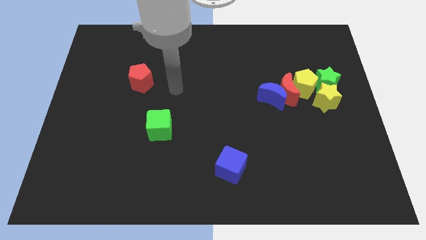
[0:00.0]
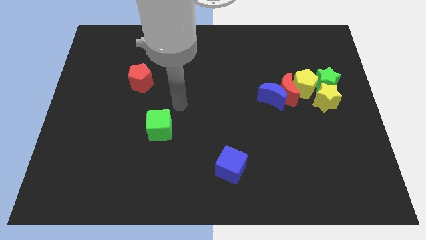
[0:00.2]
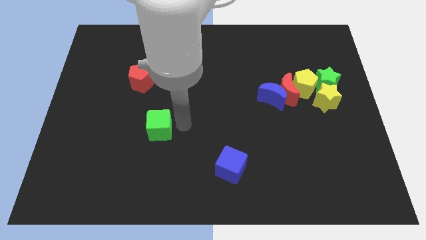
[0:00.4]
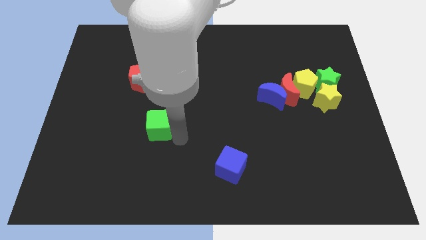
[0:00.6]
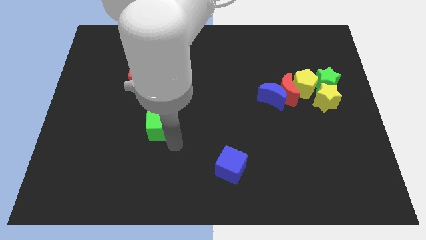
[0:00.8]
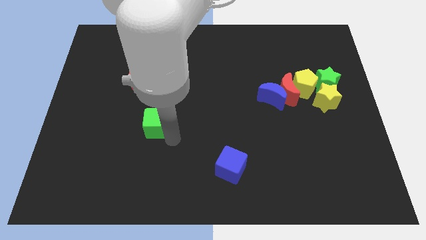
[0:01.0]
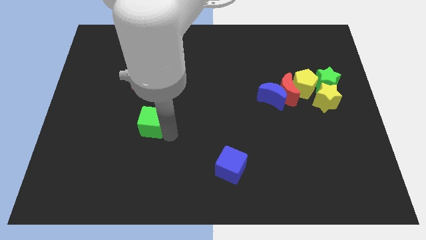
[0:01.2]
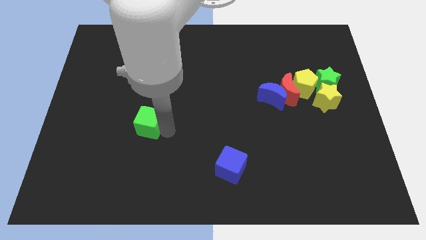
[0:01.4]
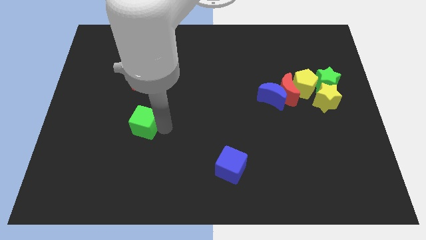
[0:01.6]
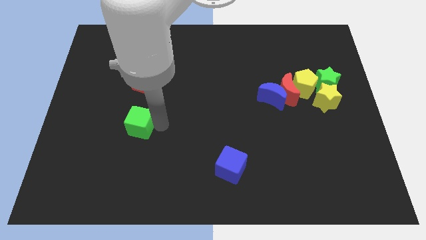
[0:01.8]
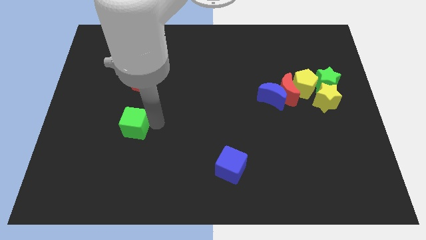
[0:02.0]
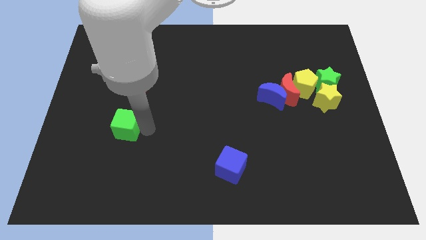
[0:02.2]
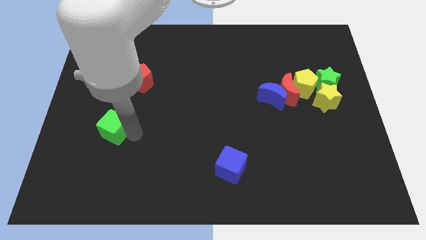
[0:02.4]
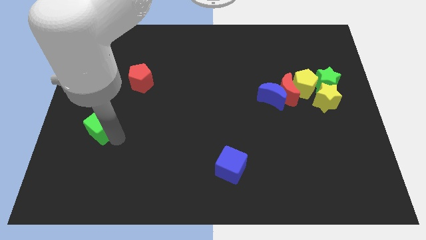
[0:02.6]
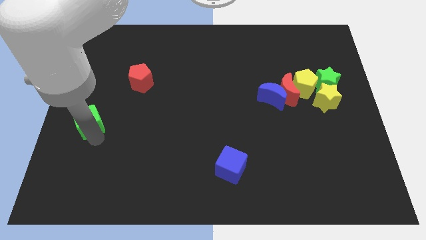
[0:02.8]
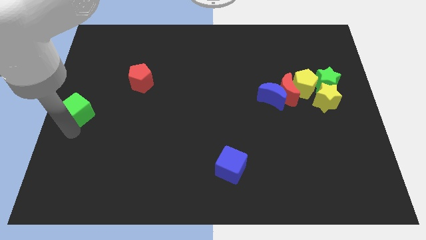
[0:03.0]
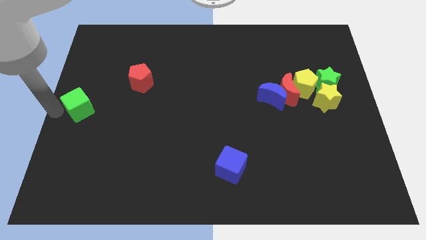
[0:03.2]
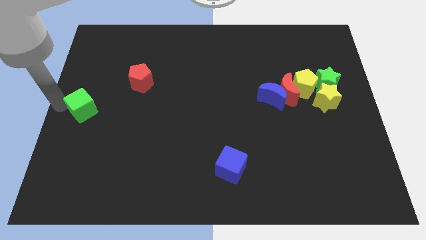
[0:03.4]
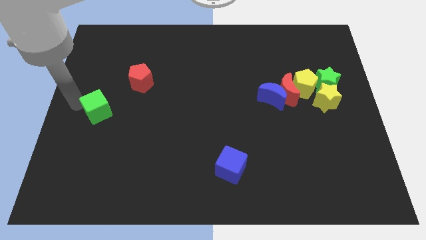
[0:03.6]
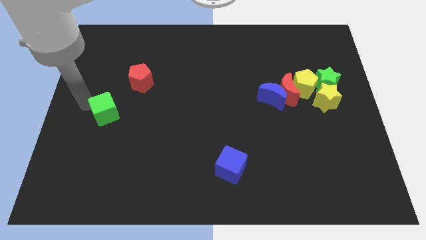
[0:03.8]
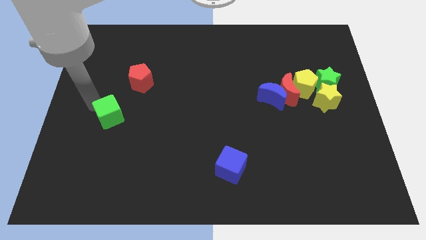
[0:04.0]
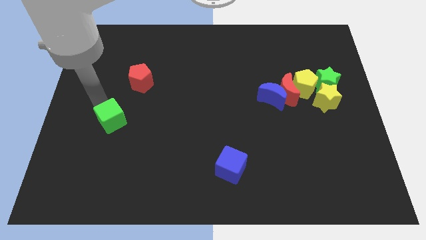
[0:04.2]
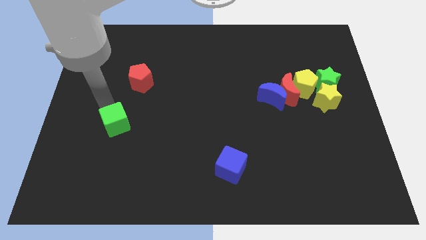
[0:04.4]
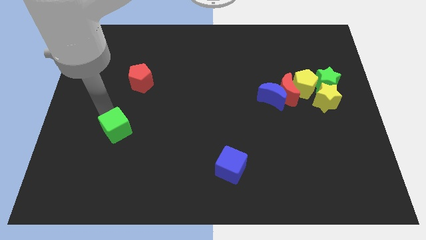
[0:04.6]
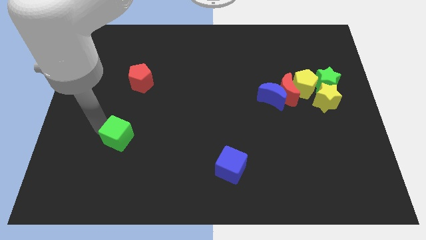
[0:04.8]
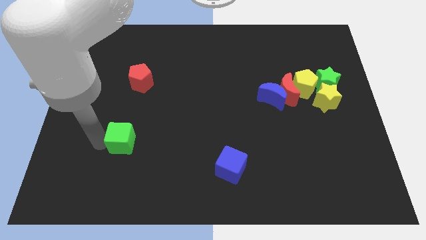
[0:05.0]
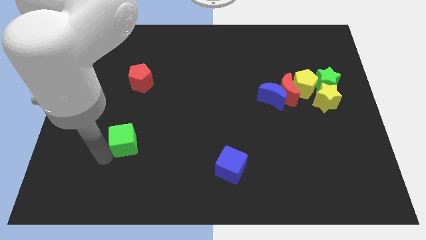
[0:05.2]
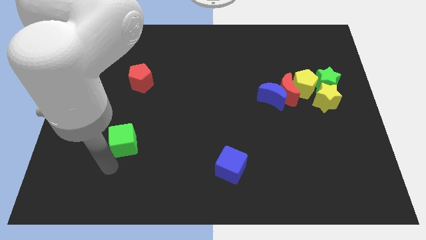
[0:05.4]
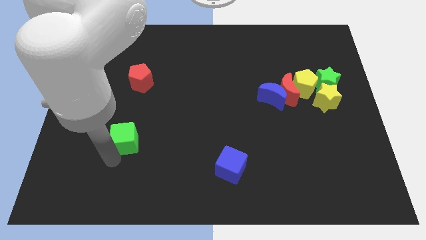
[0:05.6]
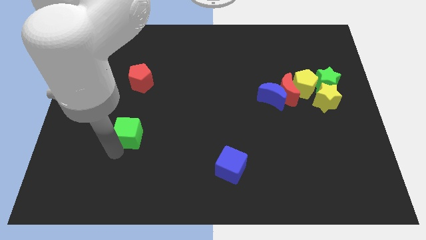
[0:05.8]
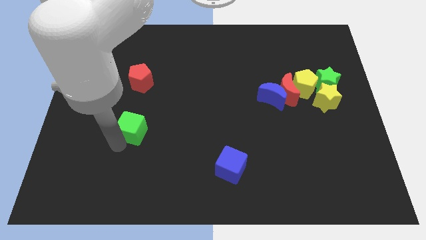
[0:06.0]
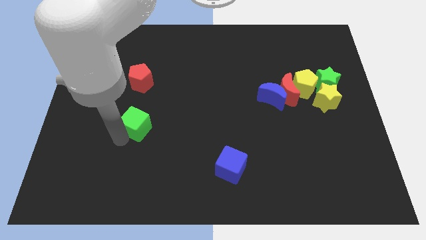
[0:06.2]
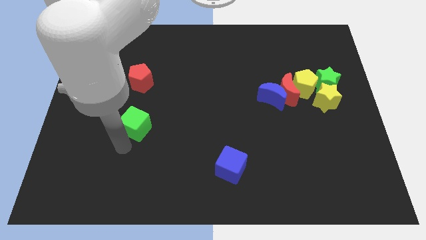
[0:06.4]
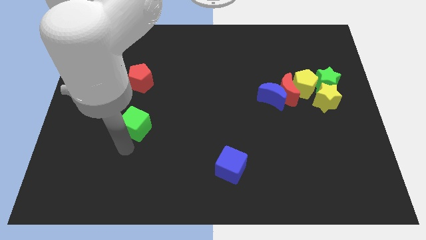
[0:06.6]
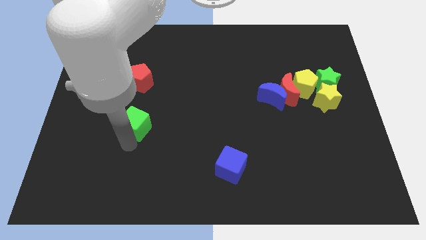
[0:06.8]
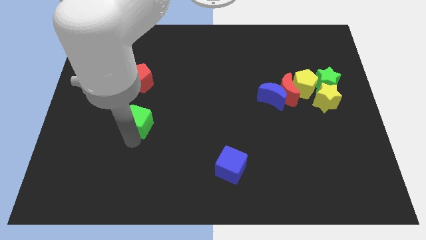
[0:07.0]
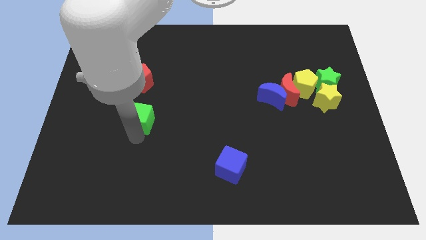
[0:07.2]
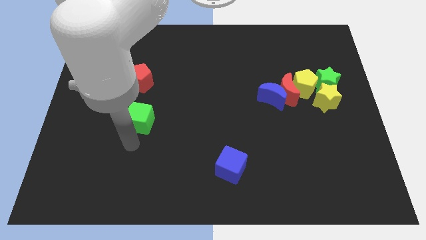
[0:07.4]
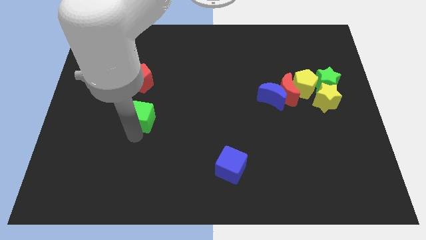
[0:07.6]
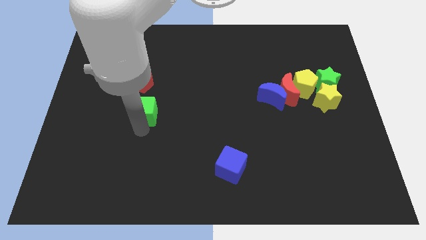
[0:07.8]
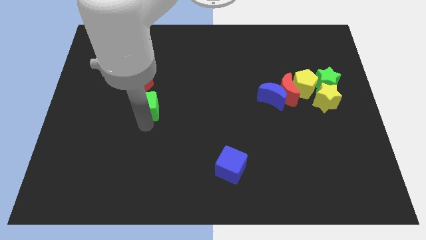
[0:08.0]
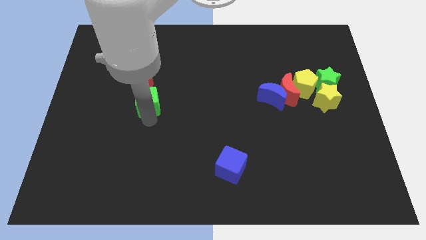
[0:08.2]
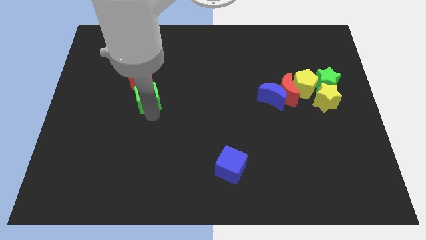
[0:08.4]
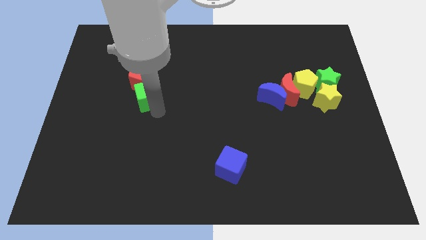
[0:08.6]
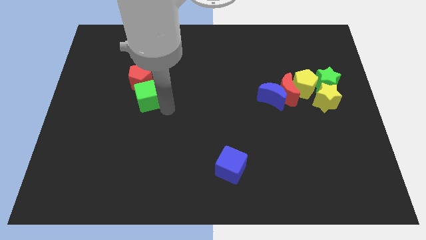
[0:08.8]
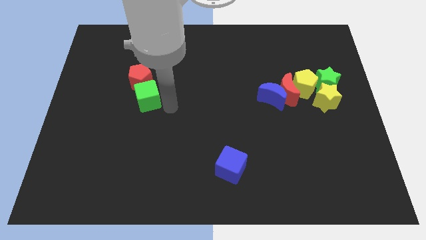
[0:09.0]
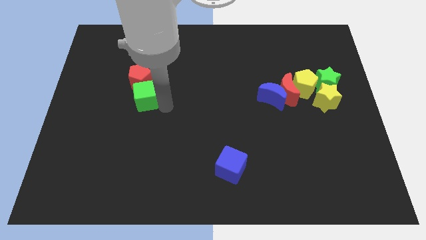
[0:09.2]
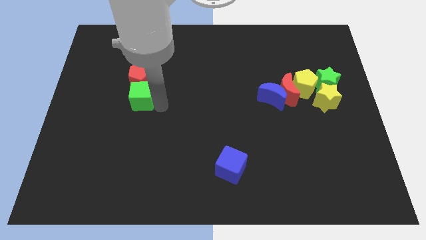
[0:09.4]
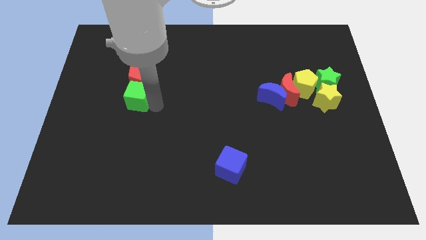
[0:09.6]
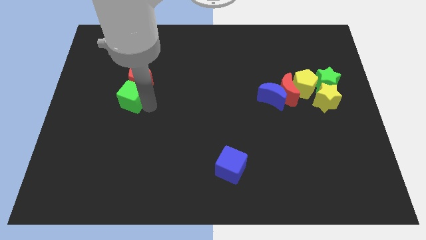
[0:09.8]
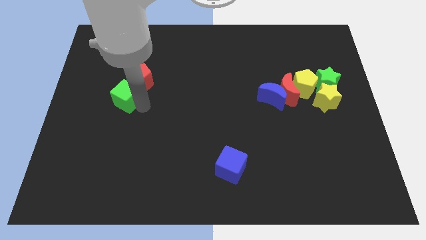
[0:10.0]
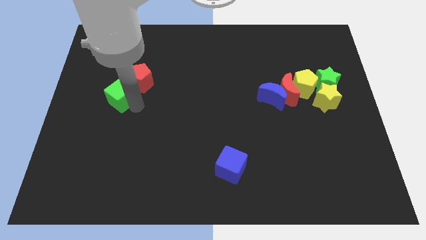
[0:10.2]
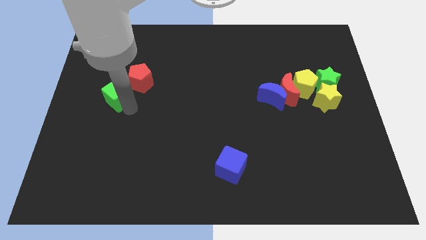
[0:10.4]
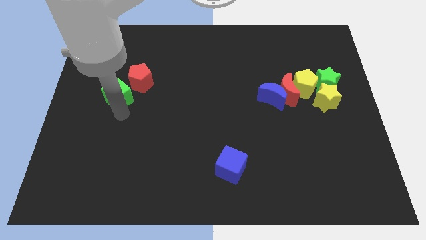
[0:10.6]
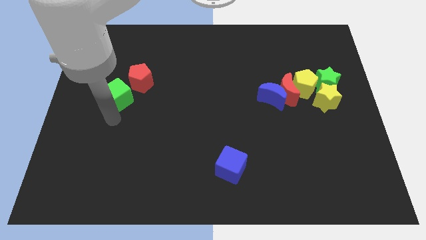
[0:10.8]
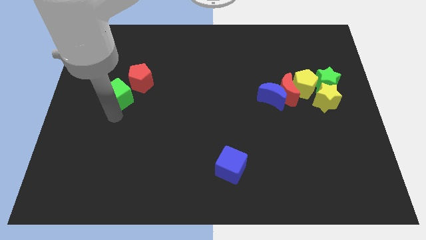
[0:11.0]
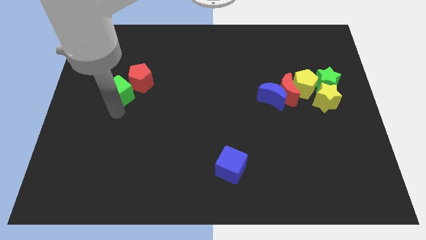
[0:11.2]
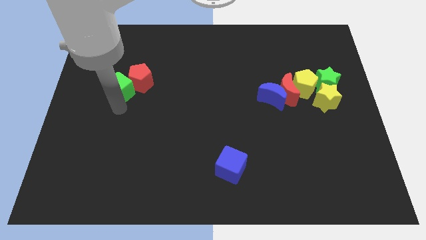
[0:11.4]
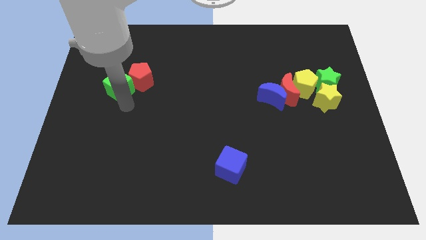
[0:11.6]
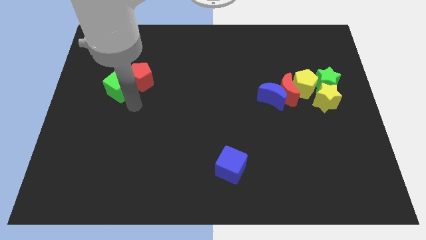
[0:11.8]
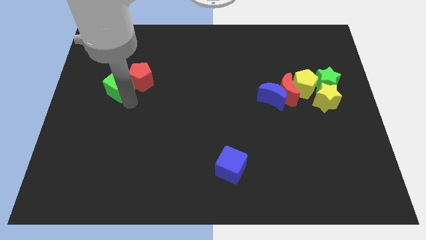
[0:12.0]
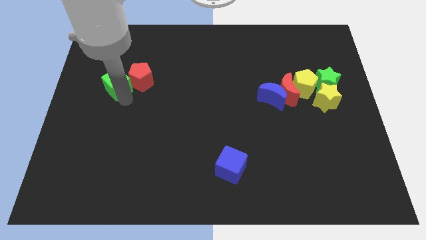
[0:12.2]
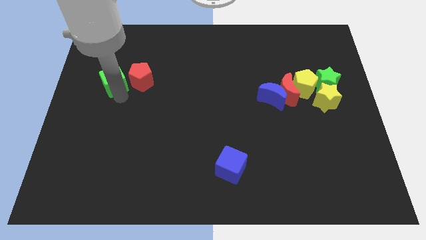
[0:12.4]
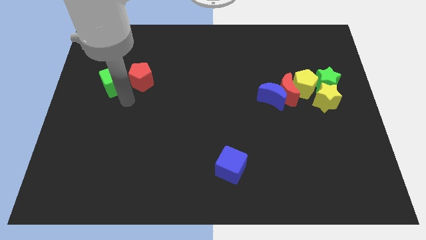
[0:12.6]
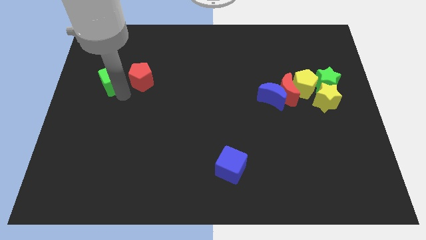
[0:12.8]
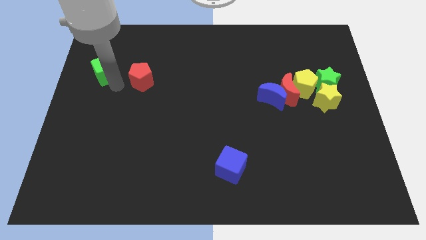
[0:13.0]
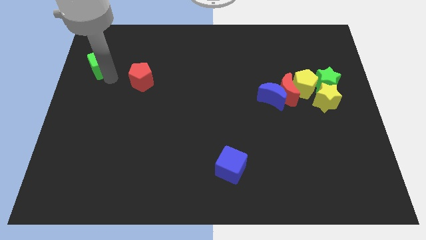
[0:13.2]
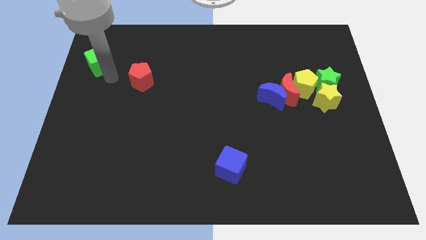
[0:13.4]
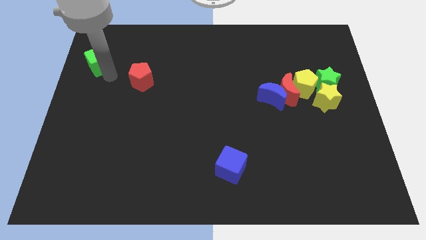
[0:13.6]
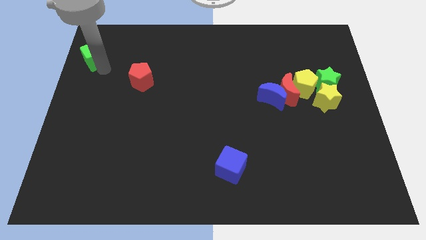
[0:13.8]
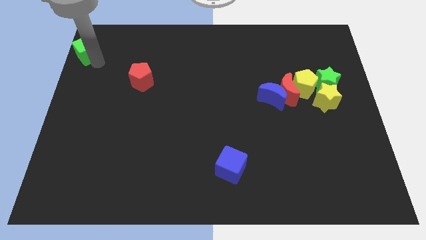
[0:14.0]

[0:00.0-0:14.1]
slide the green cube to the top left
